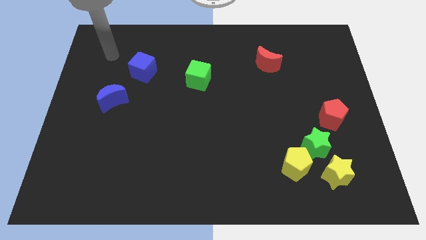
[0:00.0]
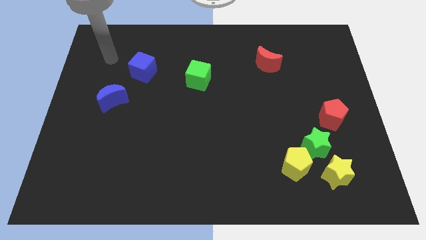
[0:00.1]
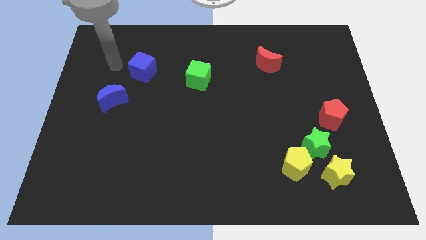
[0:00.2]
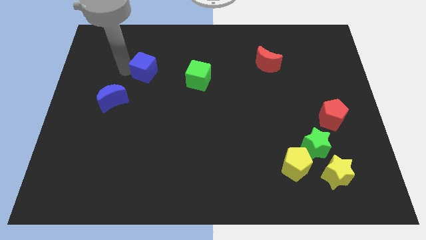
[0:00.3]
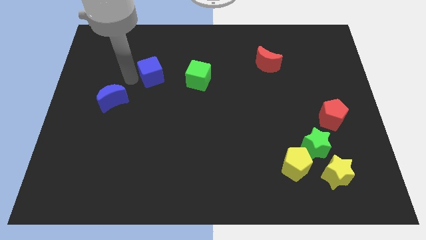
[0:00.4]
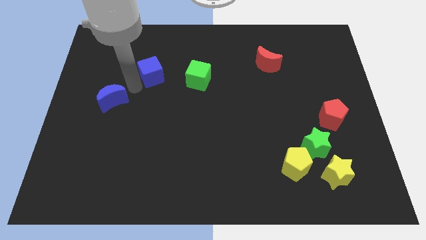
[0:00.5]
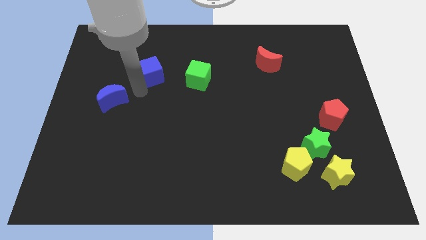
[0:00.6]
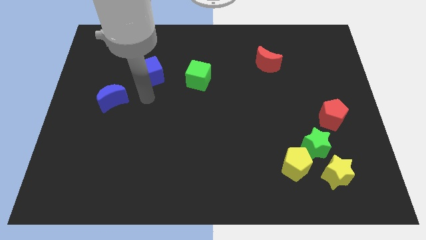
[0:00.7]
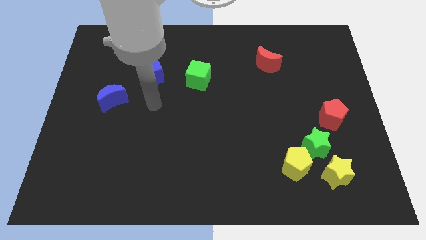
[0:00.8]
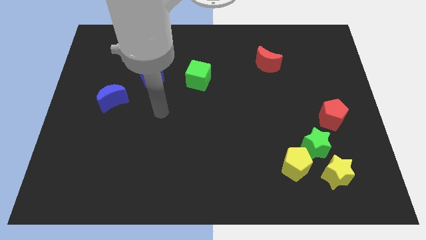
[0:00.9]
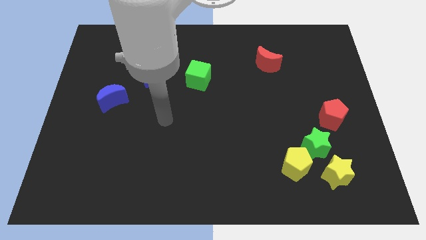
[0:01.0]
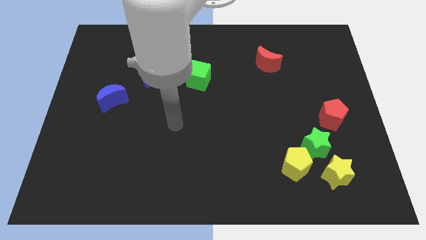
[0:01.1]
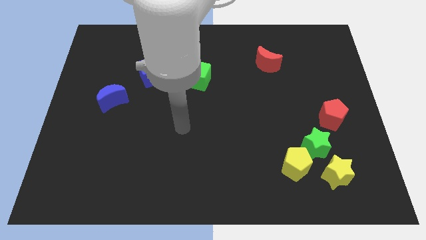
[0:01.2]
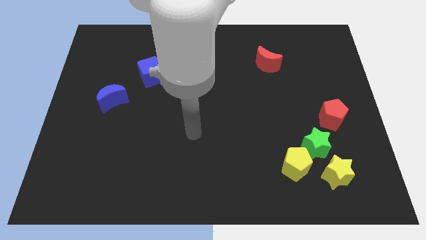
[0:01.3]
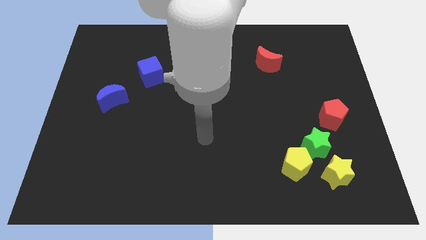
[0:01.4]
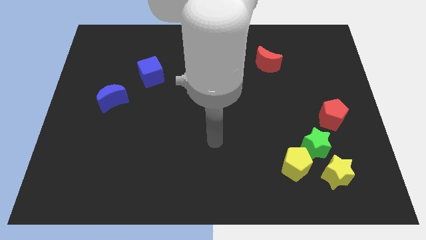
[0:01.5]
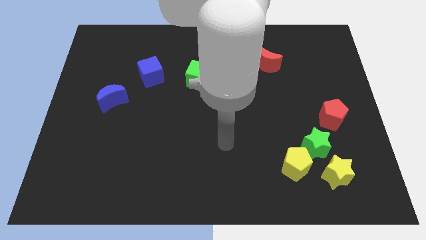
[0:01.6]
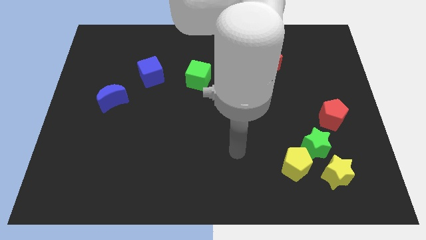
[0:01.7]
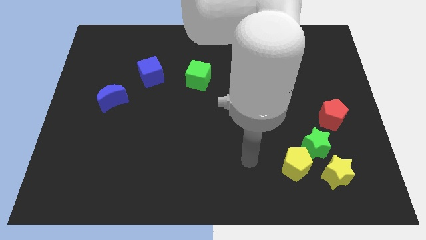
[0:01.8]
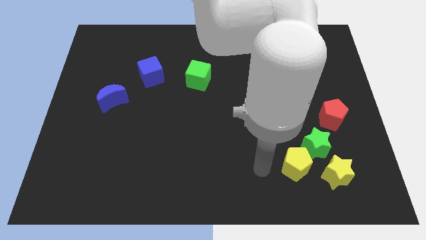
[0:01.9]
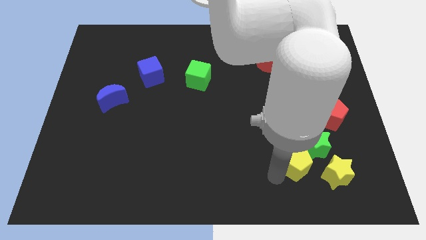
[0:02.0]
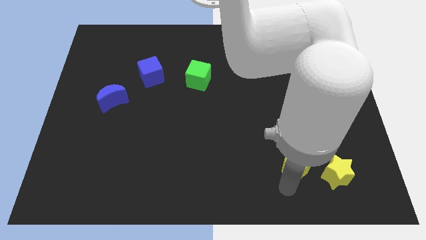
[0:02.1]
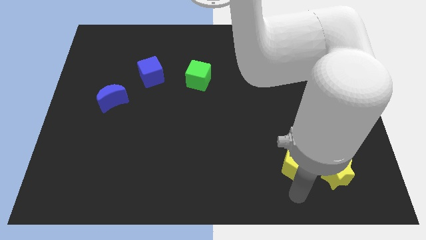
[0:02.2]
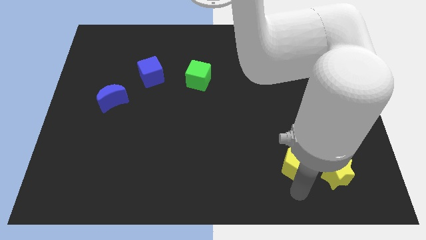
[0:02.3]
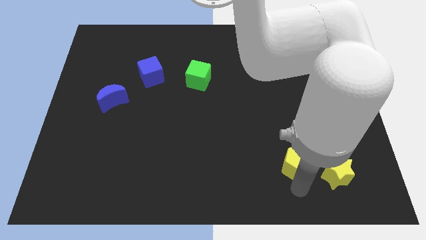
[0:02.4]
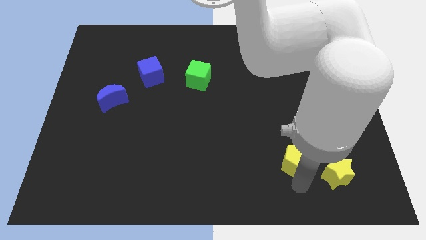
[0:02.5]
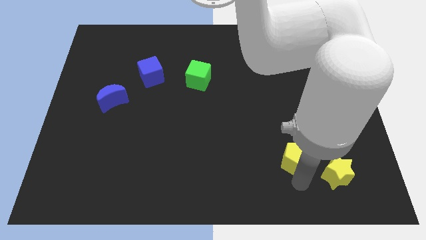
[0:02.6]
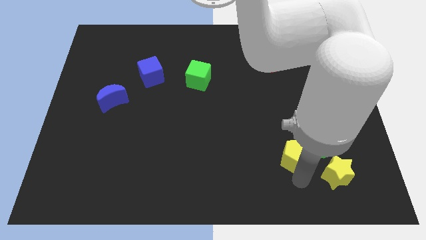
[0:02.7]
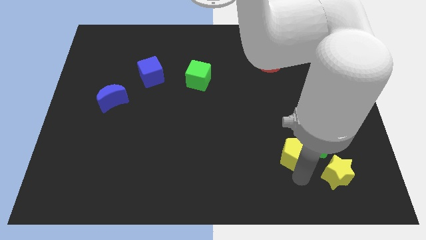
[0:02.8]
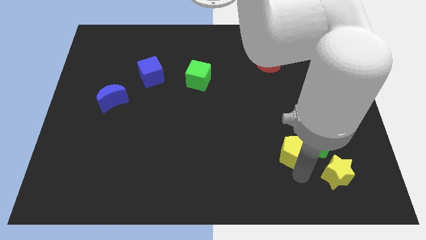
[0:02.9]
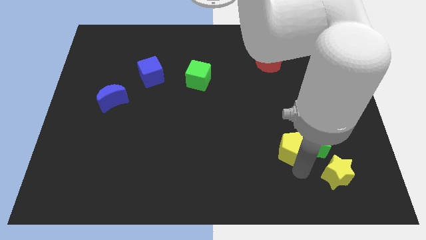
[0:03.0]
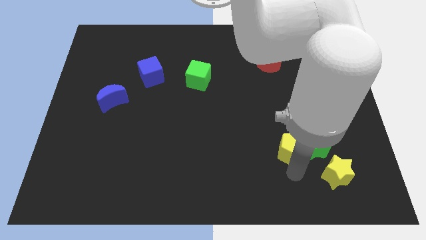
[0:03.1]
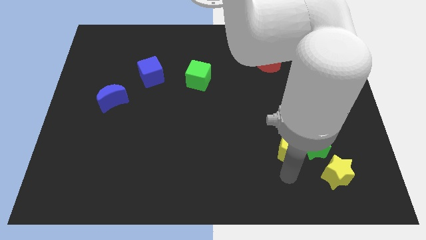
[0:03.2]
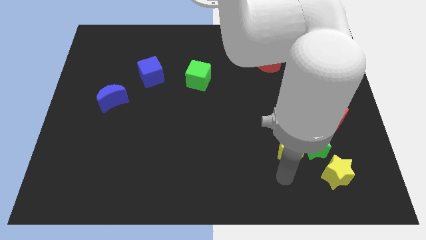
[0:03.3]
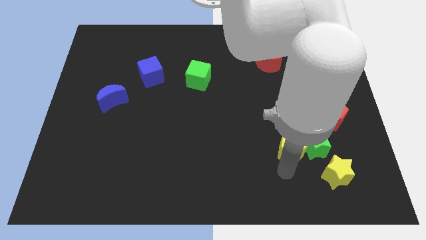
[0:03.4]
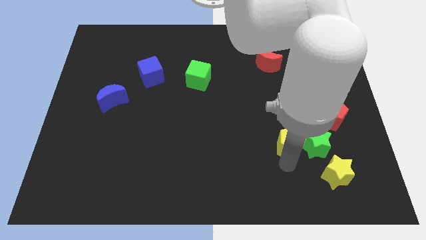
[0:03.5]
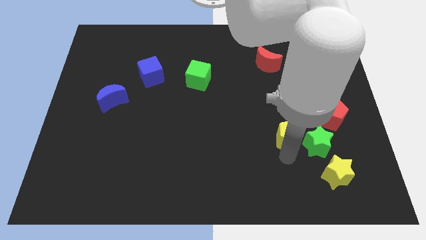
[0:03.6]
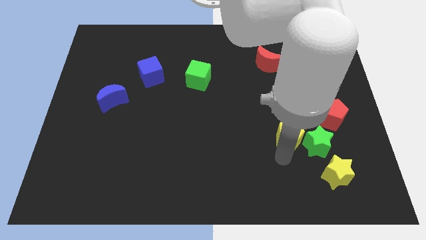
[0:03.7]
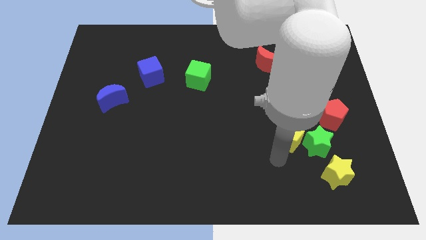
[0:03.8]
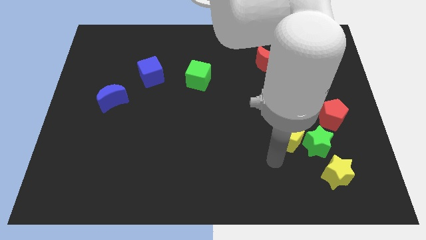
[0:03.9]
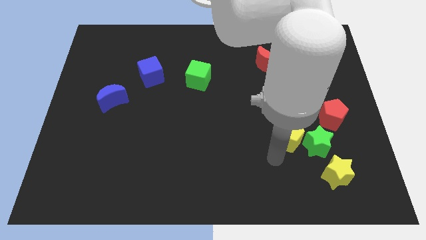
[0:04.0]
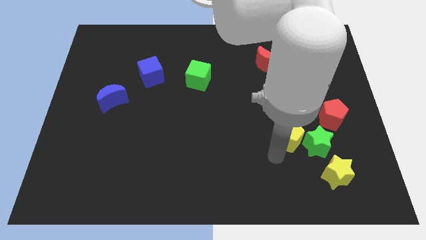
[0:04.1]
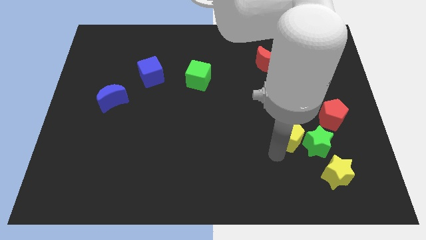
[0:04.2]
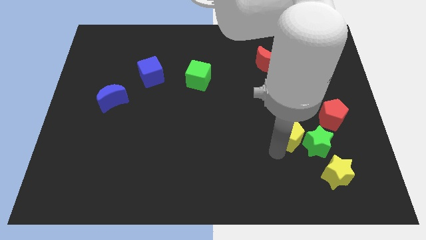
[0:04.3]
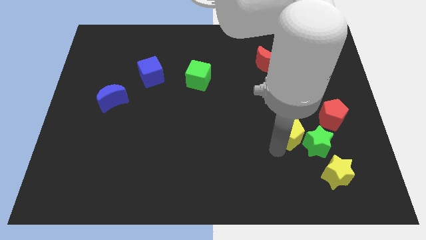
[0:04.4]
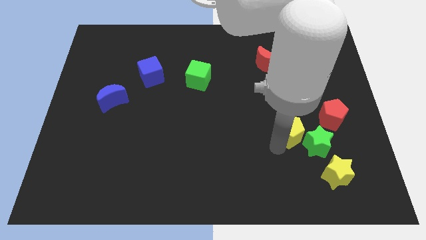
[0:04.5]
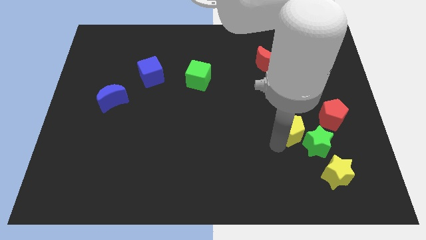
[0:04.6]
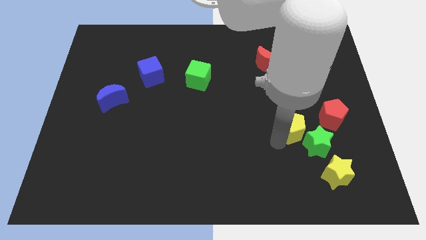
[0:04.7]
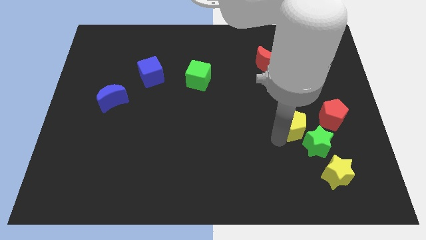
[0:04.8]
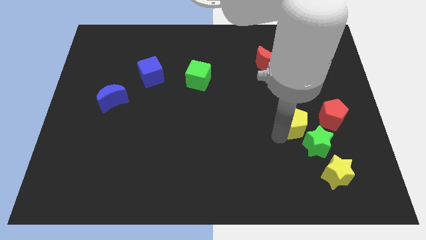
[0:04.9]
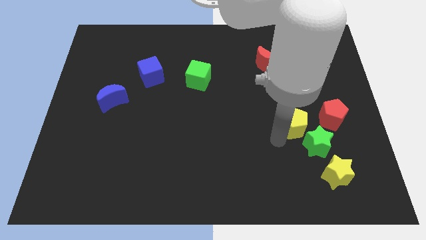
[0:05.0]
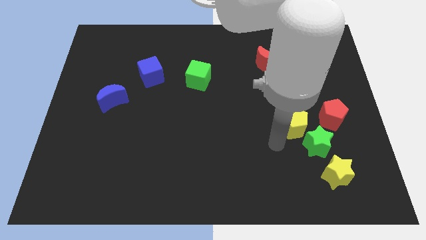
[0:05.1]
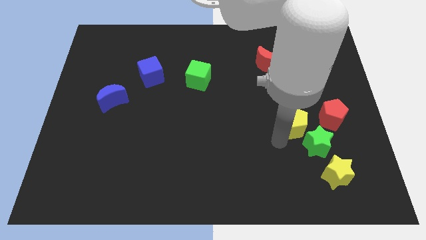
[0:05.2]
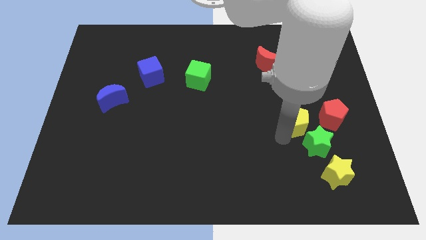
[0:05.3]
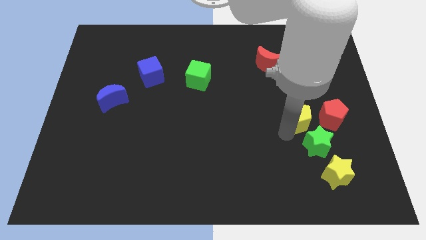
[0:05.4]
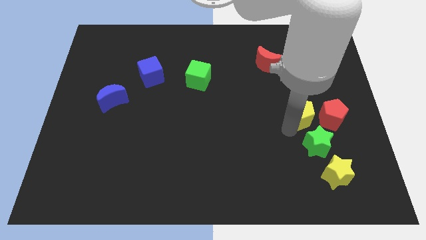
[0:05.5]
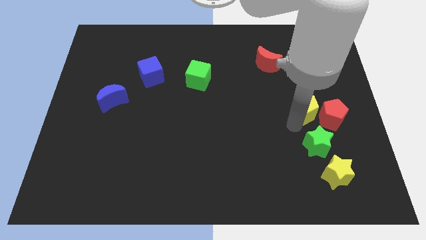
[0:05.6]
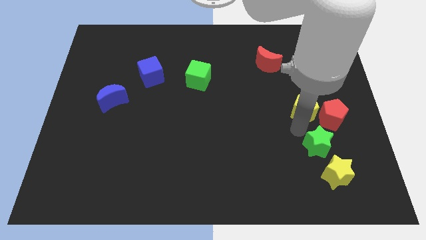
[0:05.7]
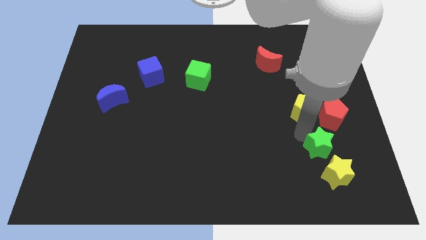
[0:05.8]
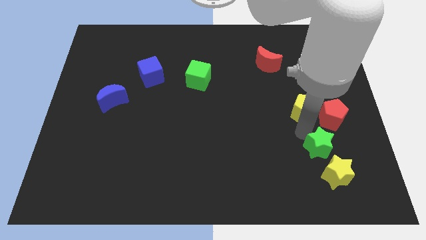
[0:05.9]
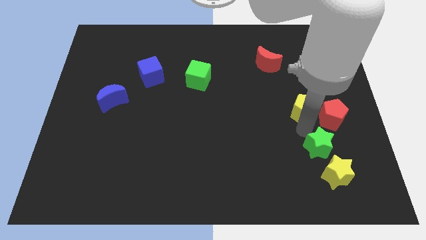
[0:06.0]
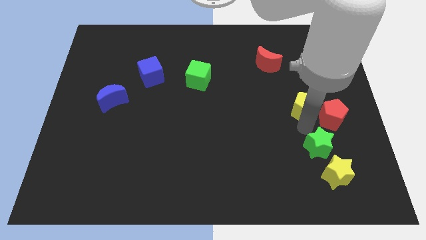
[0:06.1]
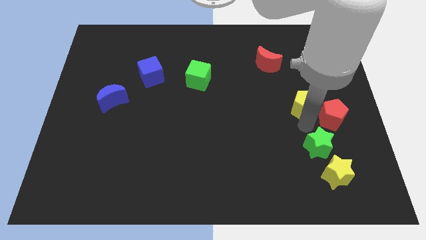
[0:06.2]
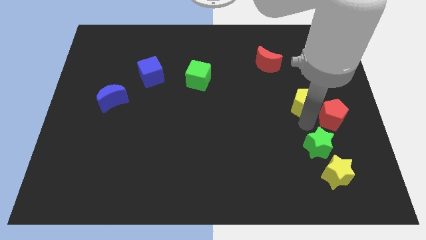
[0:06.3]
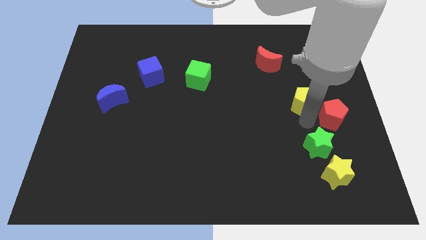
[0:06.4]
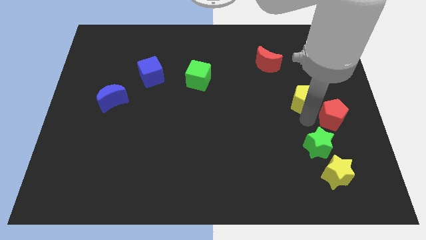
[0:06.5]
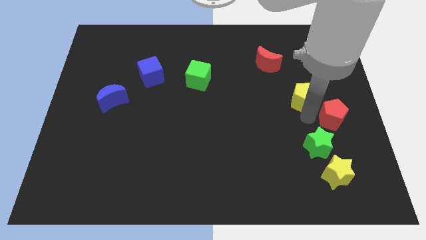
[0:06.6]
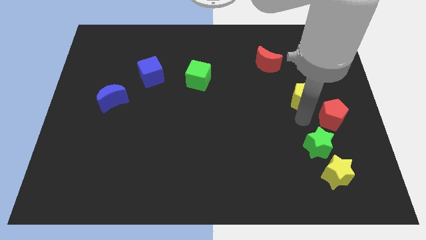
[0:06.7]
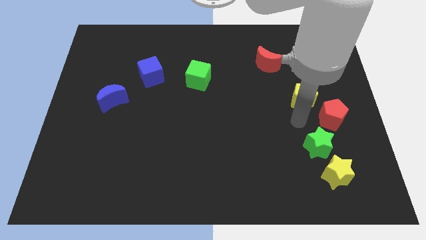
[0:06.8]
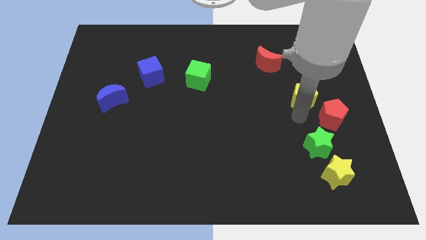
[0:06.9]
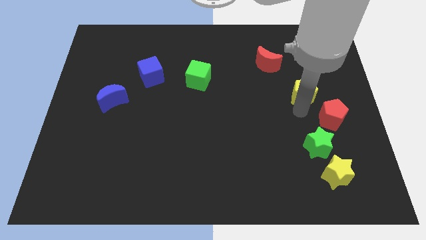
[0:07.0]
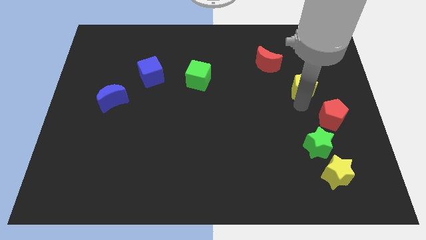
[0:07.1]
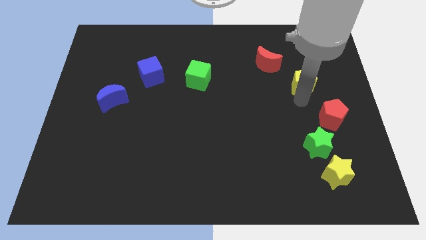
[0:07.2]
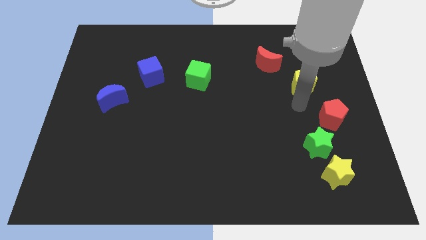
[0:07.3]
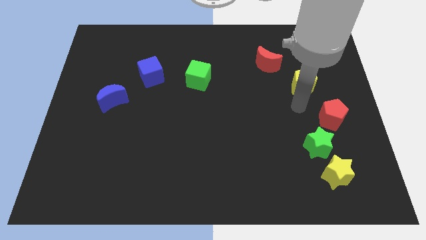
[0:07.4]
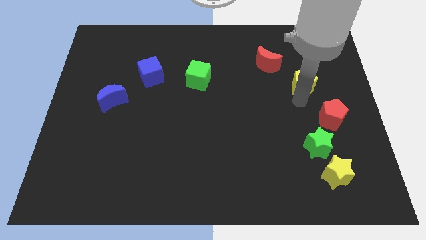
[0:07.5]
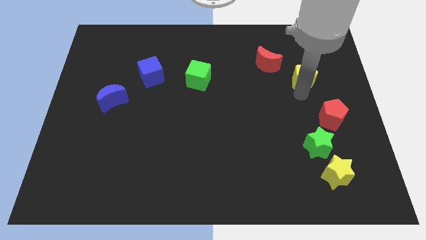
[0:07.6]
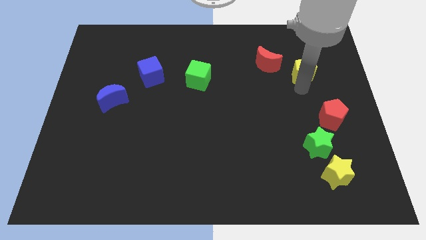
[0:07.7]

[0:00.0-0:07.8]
slide the yellow pentagon to the right side of the red moon
